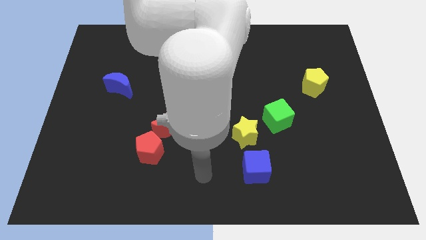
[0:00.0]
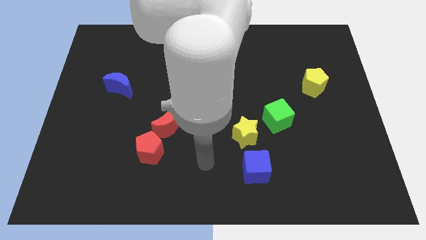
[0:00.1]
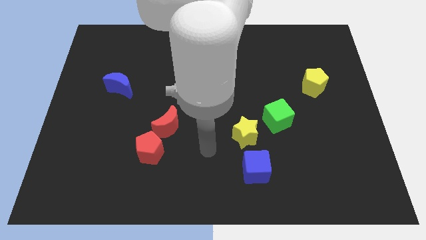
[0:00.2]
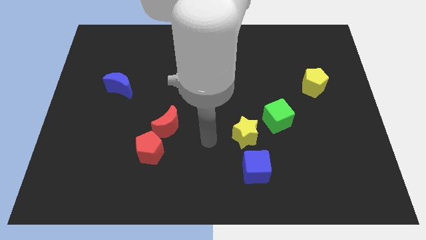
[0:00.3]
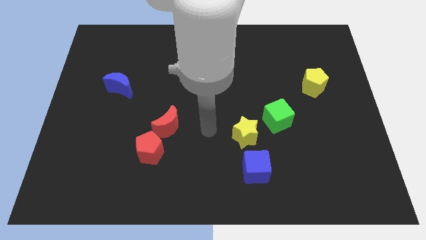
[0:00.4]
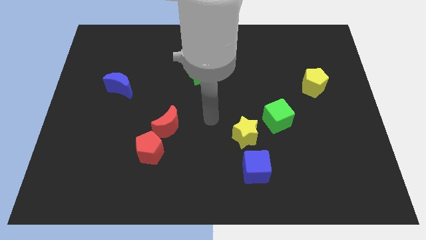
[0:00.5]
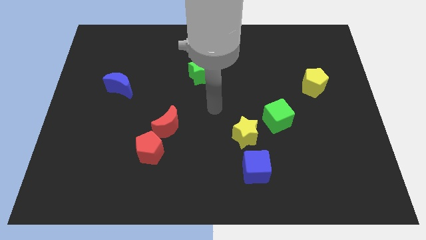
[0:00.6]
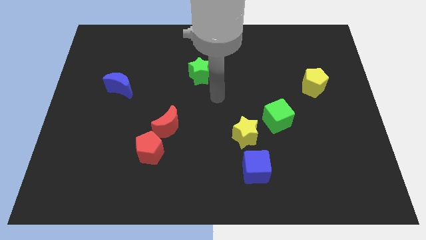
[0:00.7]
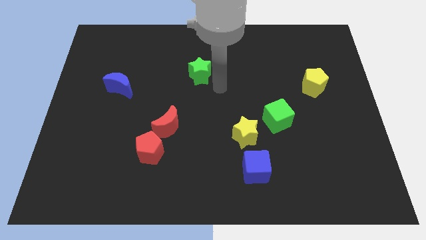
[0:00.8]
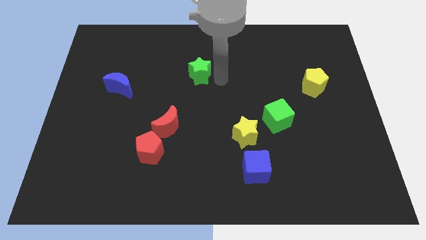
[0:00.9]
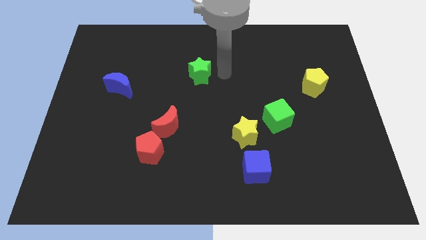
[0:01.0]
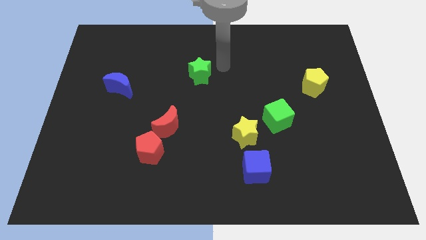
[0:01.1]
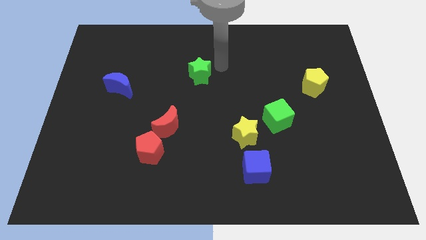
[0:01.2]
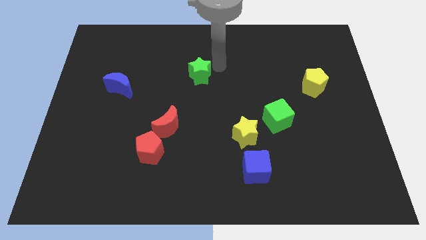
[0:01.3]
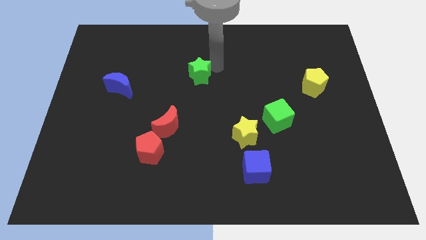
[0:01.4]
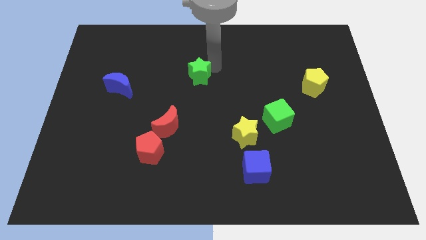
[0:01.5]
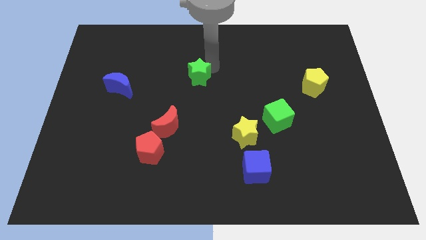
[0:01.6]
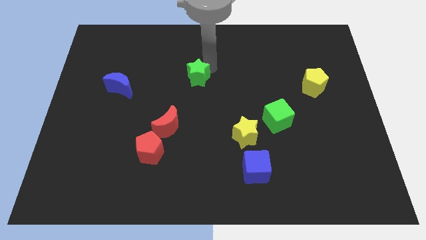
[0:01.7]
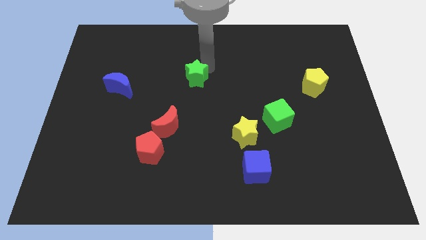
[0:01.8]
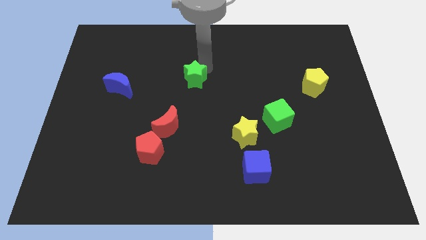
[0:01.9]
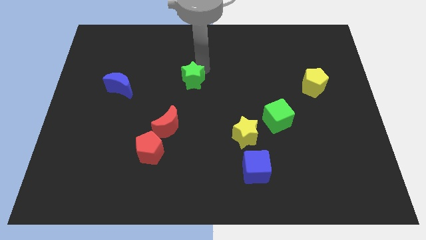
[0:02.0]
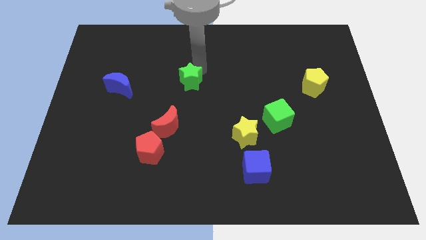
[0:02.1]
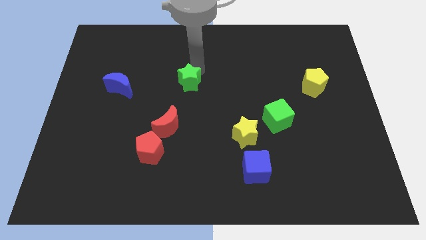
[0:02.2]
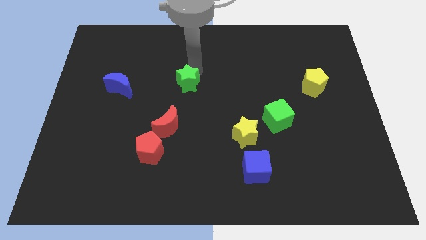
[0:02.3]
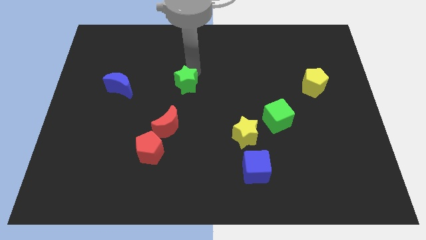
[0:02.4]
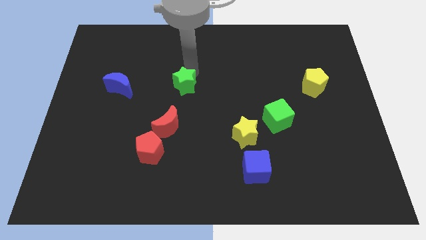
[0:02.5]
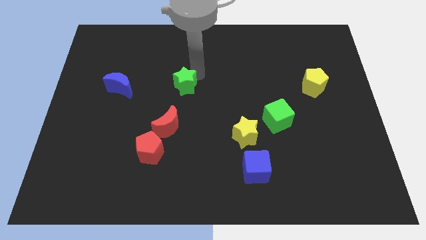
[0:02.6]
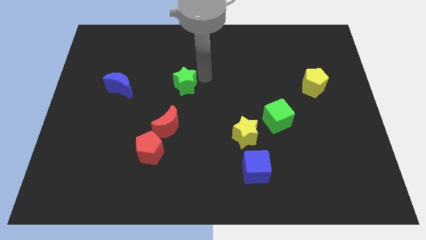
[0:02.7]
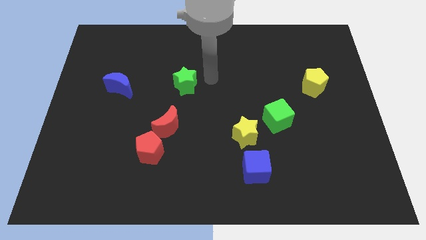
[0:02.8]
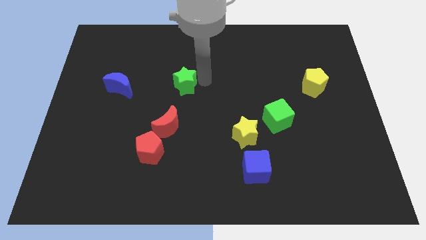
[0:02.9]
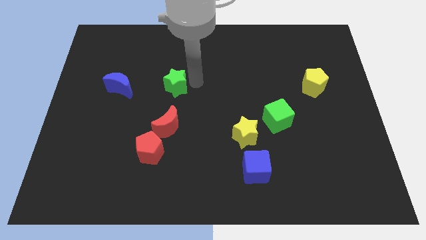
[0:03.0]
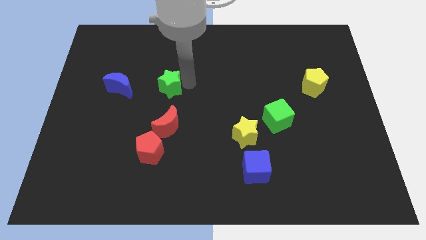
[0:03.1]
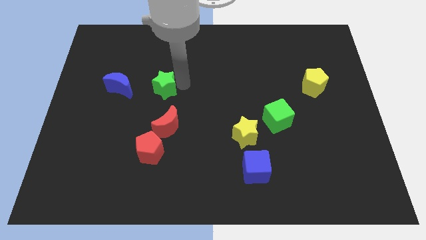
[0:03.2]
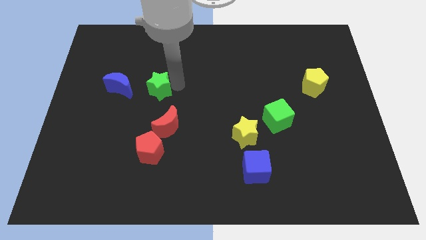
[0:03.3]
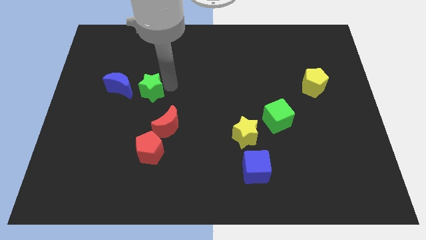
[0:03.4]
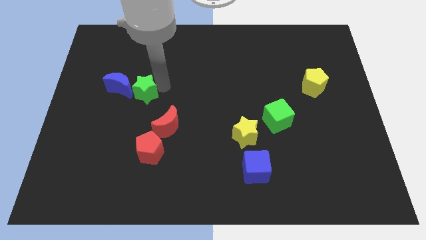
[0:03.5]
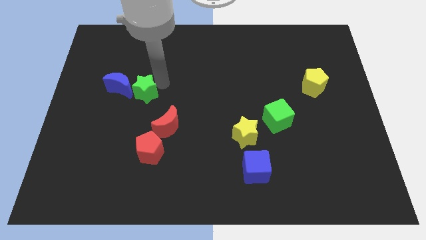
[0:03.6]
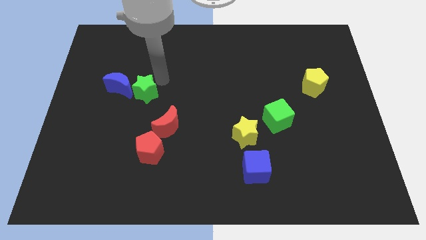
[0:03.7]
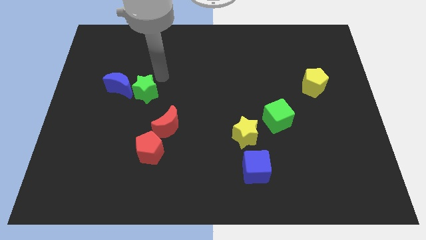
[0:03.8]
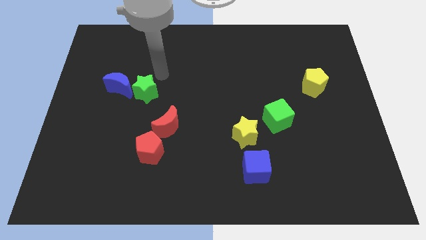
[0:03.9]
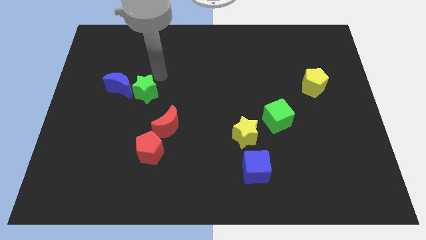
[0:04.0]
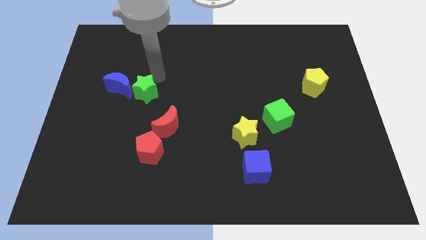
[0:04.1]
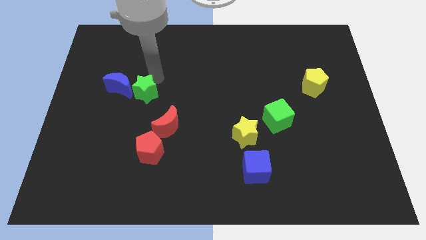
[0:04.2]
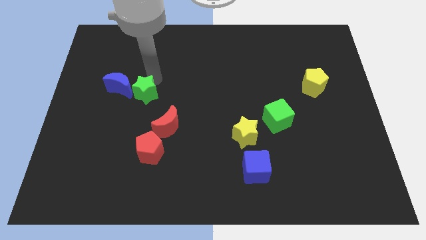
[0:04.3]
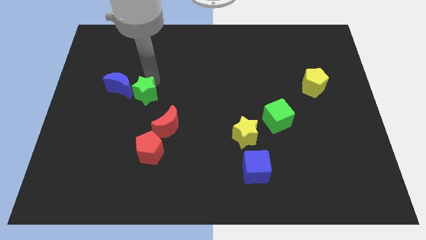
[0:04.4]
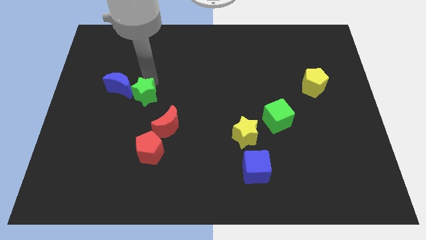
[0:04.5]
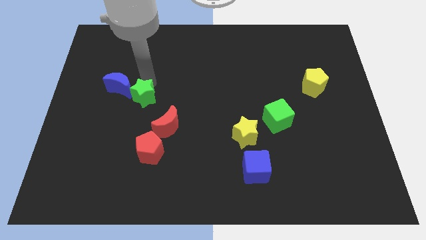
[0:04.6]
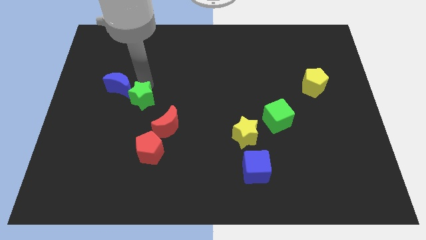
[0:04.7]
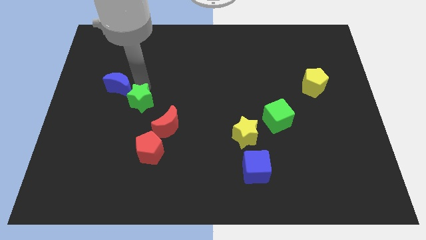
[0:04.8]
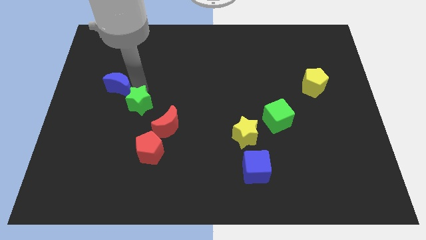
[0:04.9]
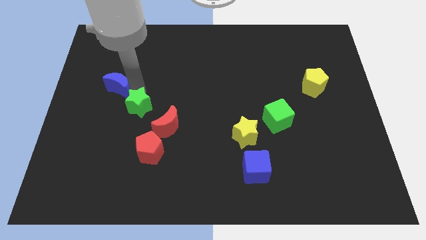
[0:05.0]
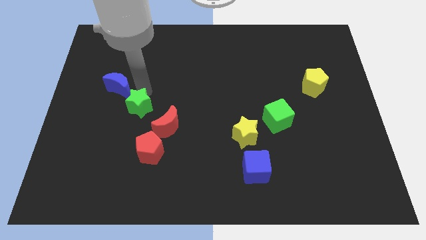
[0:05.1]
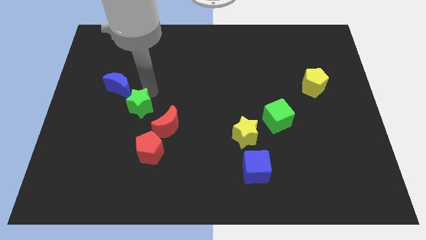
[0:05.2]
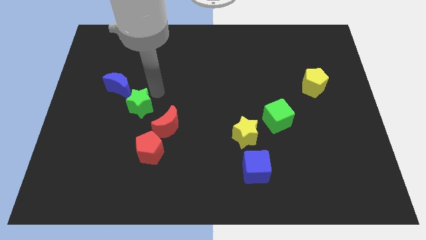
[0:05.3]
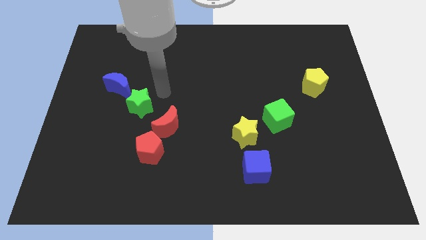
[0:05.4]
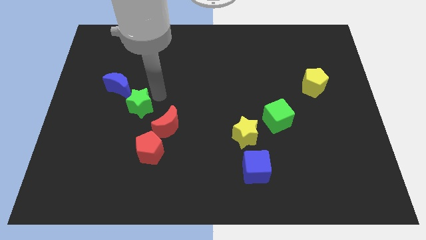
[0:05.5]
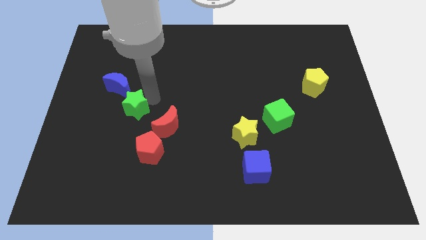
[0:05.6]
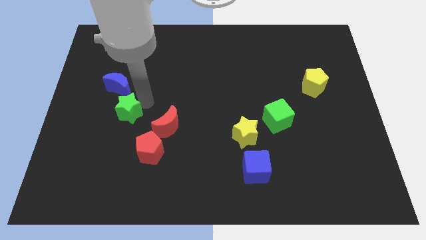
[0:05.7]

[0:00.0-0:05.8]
slide the green star downwards and then to the left

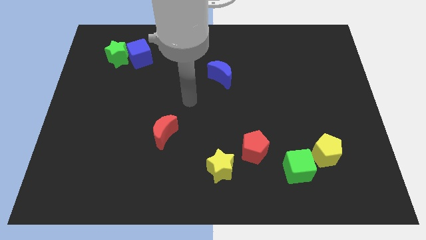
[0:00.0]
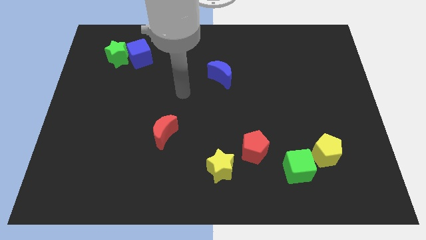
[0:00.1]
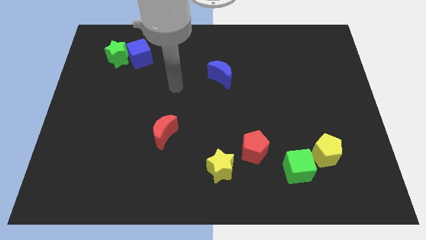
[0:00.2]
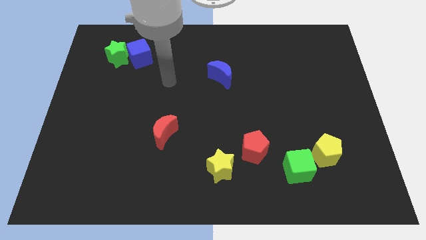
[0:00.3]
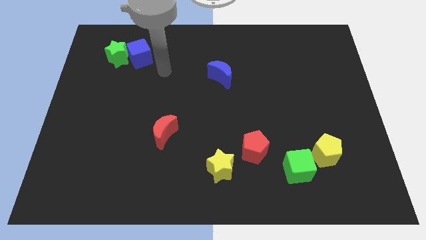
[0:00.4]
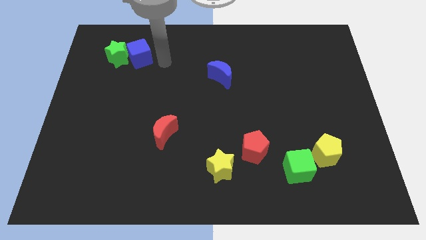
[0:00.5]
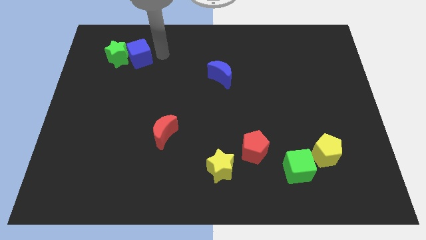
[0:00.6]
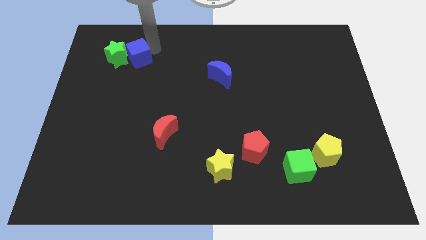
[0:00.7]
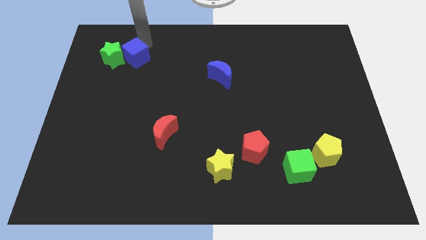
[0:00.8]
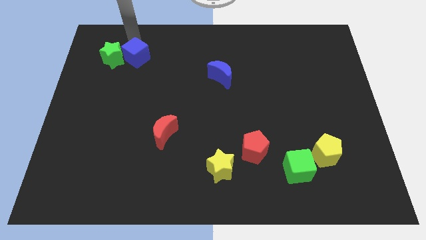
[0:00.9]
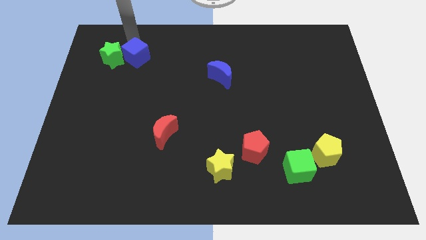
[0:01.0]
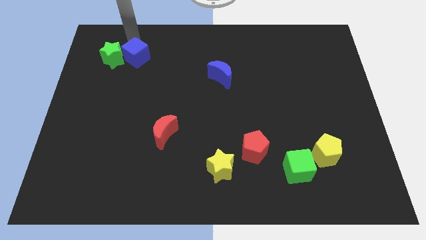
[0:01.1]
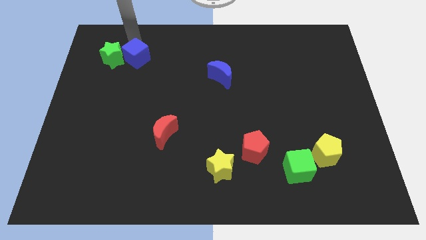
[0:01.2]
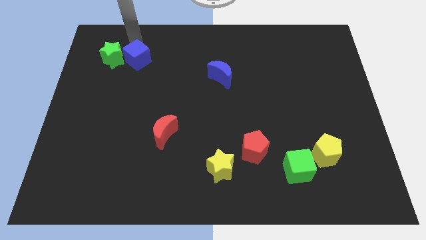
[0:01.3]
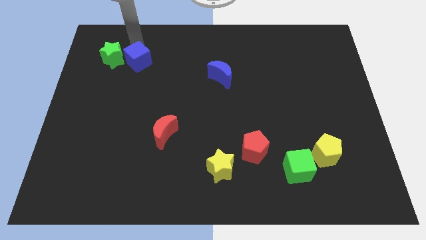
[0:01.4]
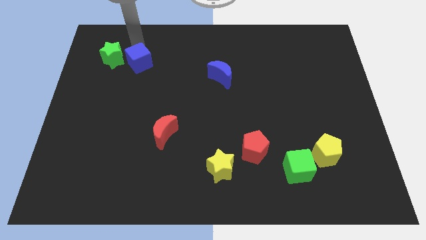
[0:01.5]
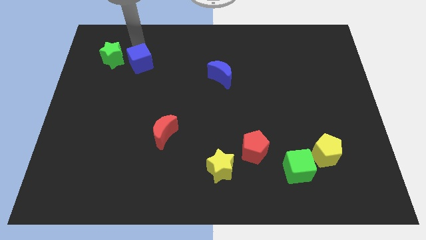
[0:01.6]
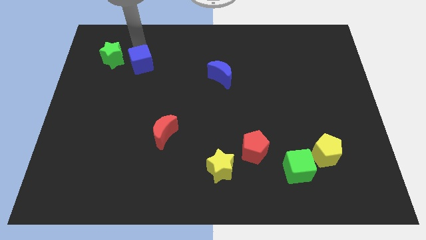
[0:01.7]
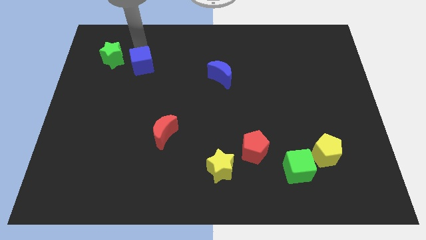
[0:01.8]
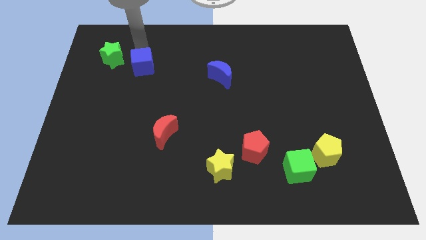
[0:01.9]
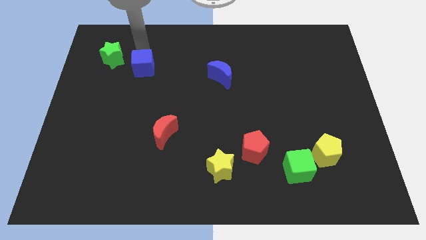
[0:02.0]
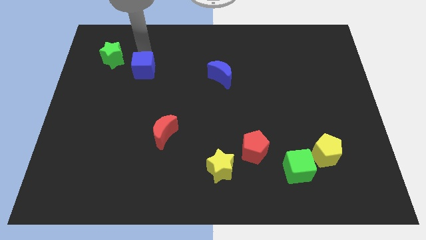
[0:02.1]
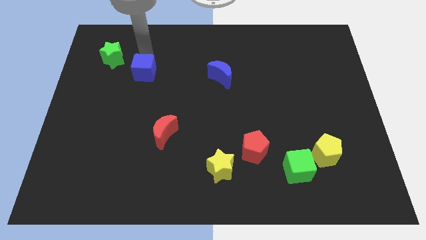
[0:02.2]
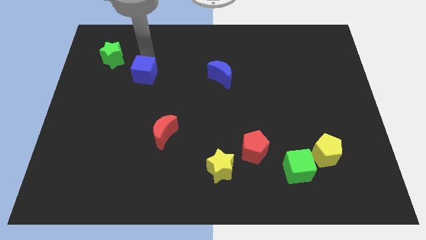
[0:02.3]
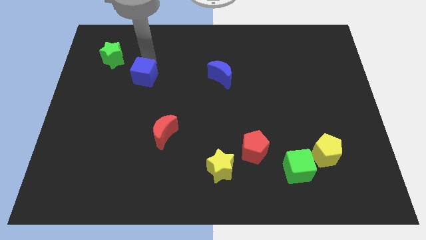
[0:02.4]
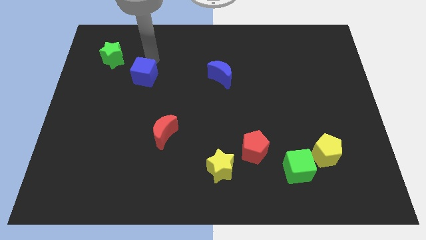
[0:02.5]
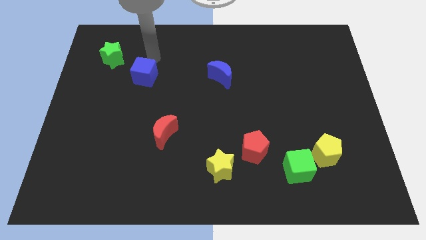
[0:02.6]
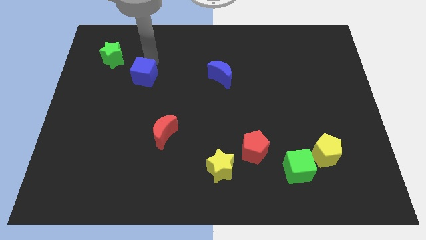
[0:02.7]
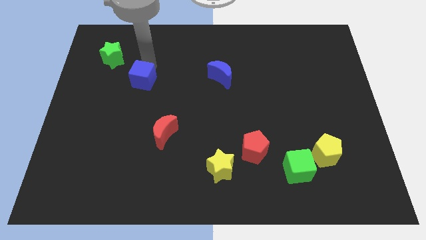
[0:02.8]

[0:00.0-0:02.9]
slide the blue cube a bit down
